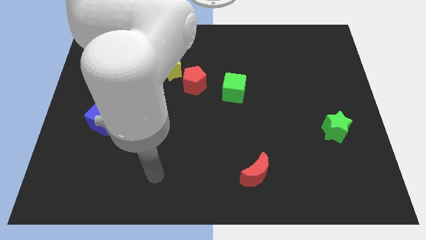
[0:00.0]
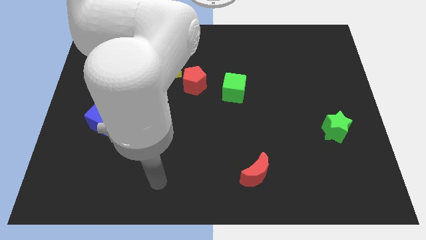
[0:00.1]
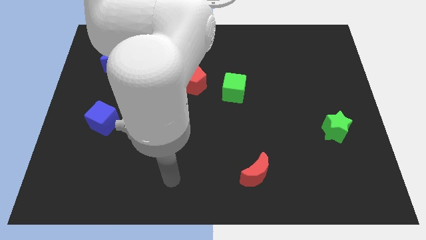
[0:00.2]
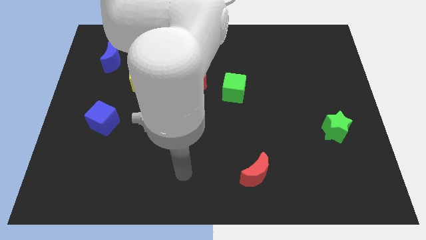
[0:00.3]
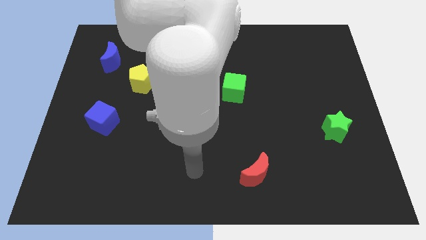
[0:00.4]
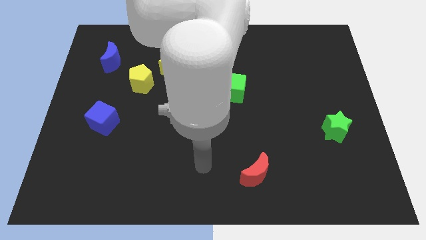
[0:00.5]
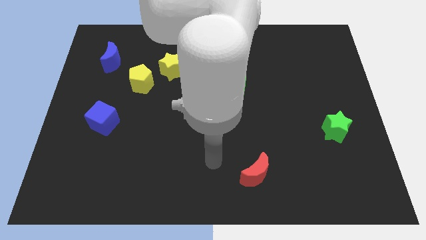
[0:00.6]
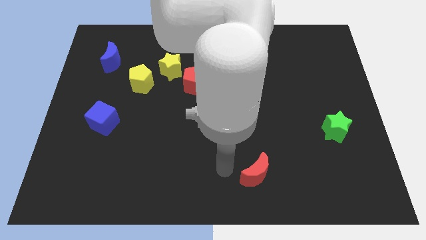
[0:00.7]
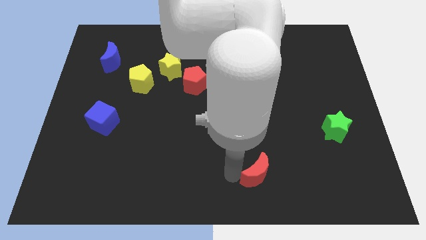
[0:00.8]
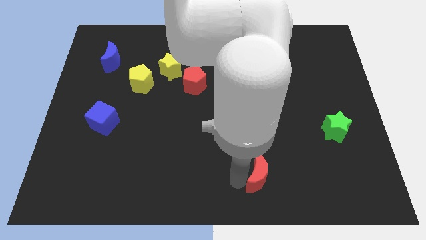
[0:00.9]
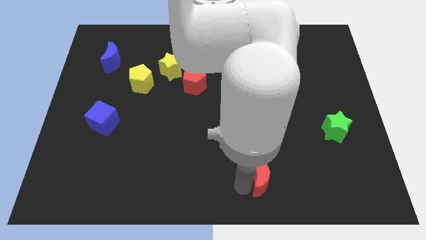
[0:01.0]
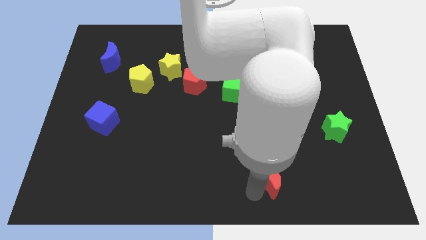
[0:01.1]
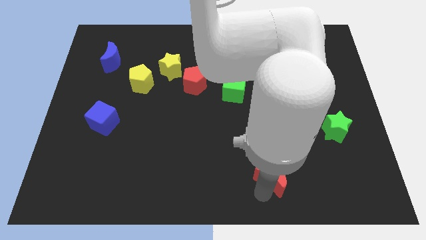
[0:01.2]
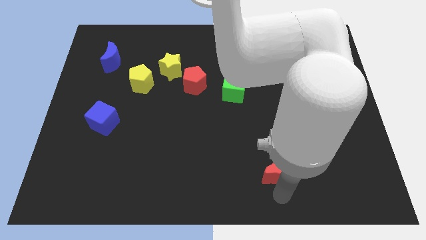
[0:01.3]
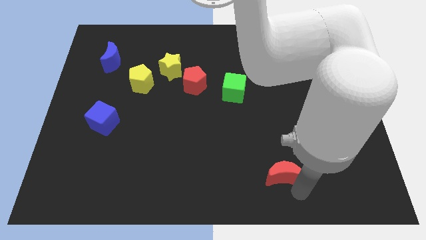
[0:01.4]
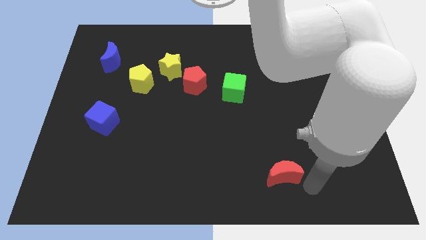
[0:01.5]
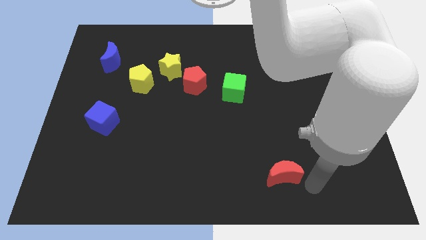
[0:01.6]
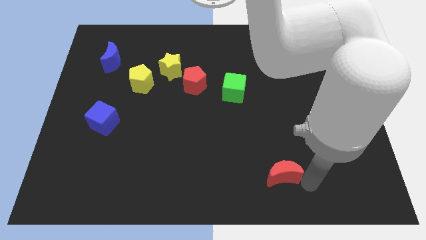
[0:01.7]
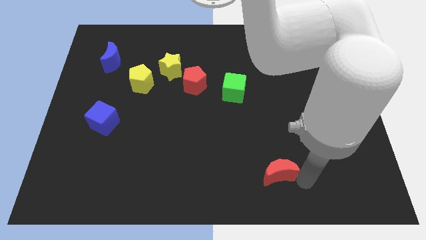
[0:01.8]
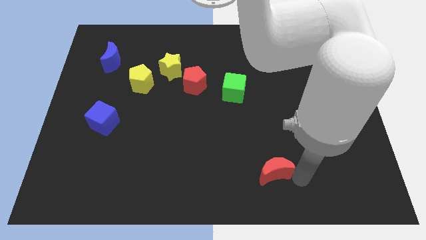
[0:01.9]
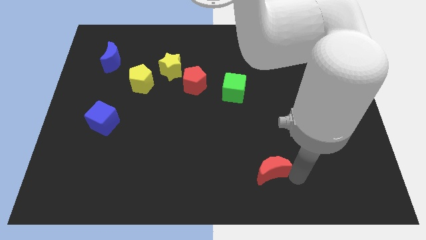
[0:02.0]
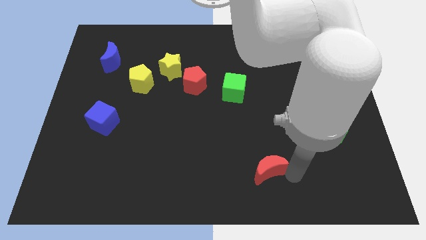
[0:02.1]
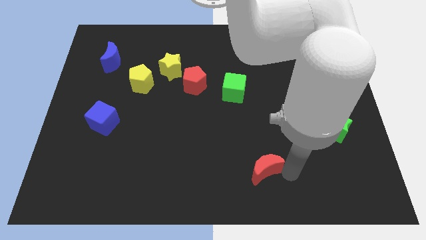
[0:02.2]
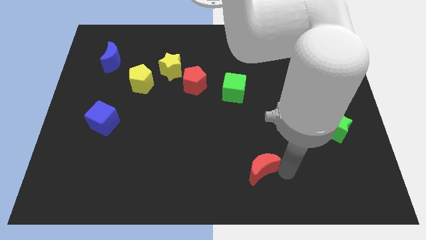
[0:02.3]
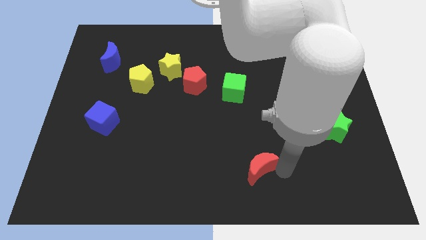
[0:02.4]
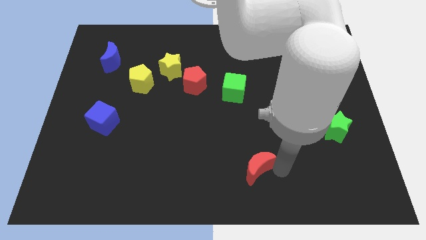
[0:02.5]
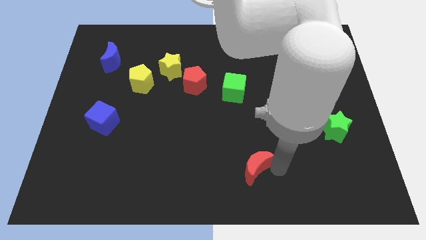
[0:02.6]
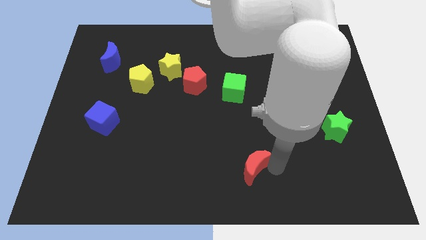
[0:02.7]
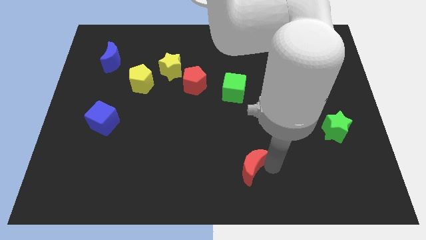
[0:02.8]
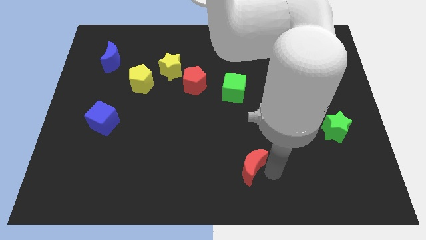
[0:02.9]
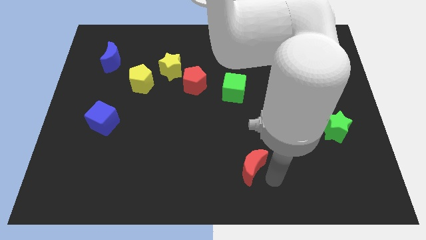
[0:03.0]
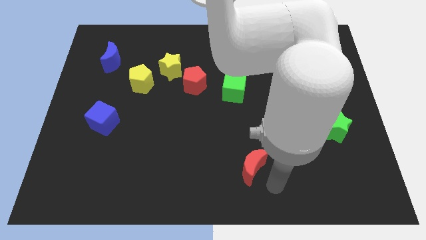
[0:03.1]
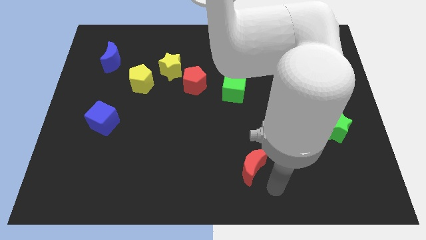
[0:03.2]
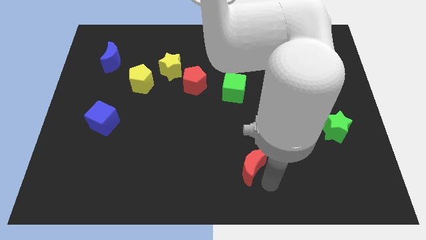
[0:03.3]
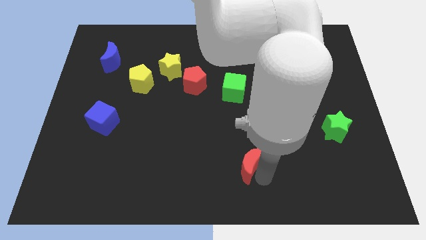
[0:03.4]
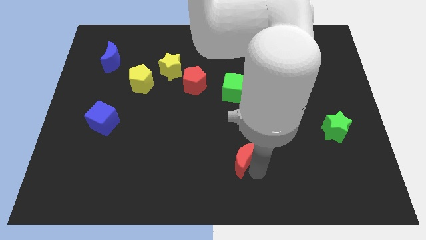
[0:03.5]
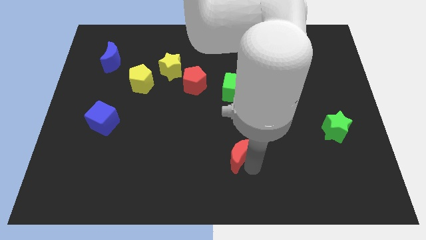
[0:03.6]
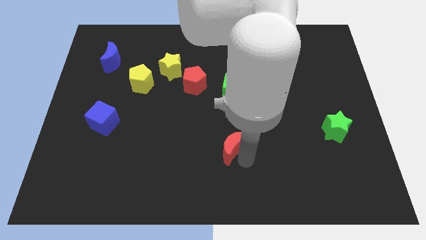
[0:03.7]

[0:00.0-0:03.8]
move the red moon upwards and then left a little bit

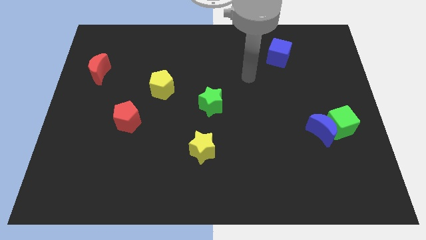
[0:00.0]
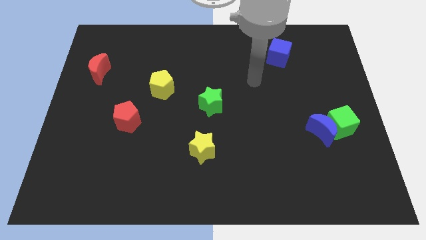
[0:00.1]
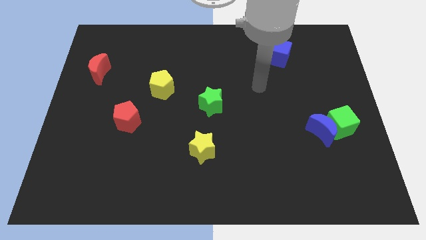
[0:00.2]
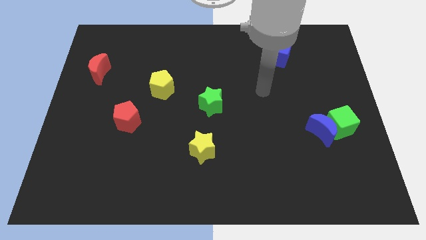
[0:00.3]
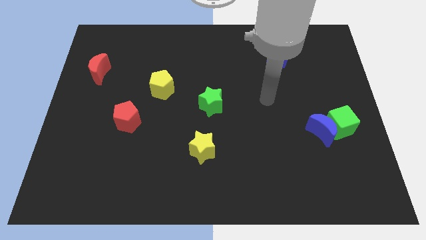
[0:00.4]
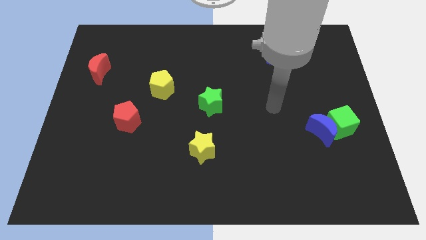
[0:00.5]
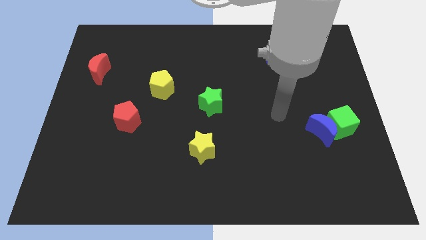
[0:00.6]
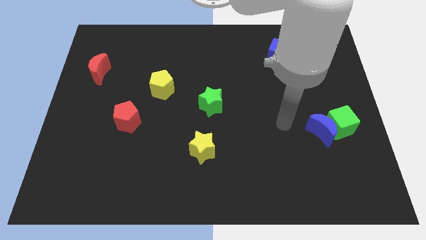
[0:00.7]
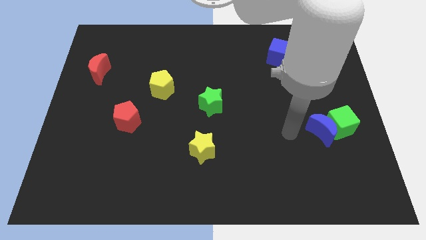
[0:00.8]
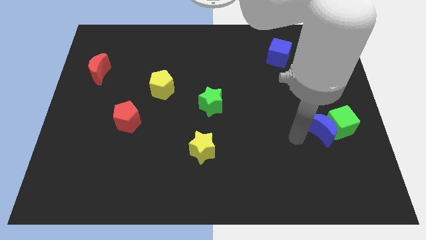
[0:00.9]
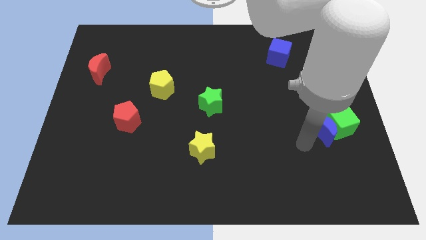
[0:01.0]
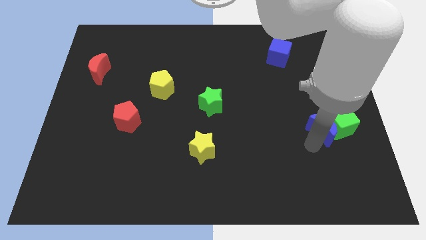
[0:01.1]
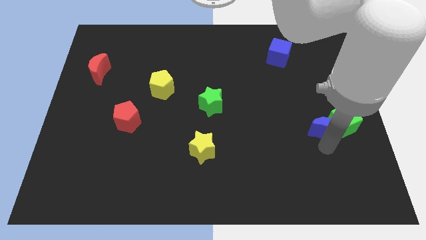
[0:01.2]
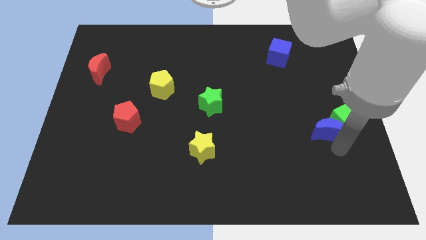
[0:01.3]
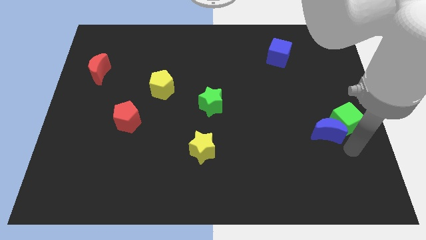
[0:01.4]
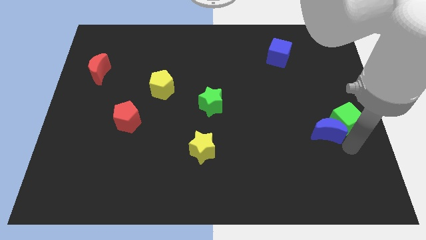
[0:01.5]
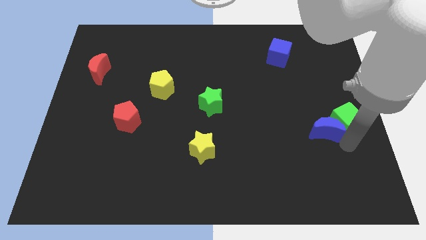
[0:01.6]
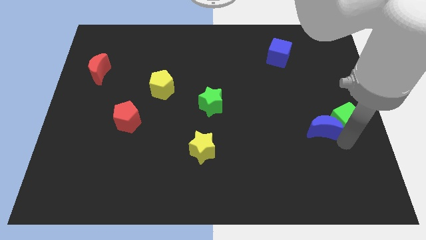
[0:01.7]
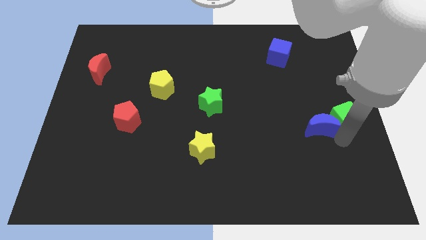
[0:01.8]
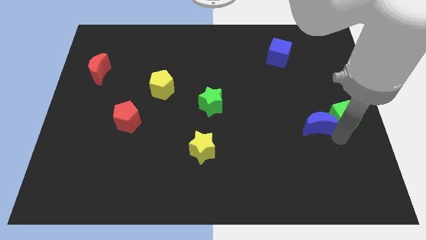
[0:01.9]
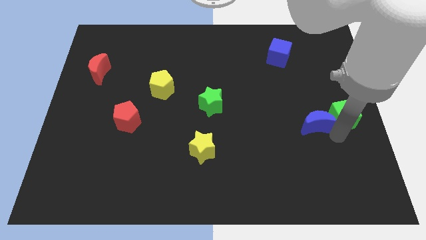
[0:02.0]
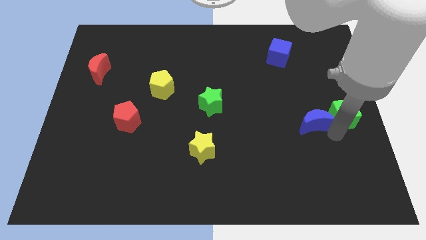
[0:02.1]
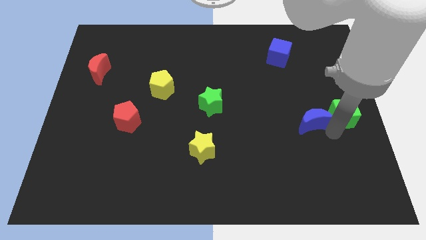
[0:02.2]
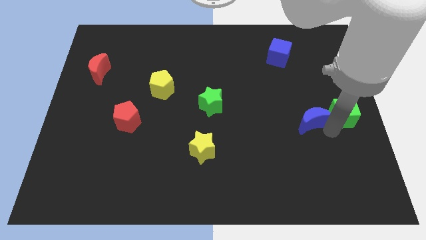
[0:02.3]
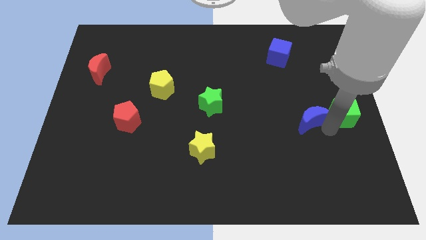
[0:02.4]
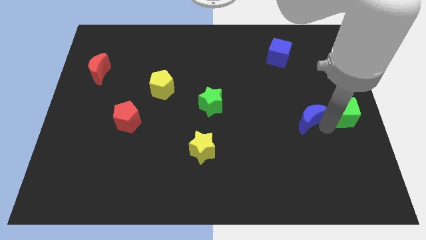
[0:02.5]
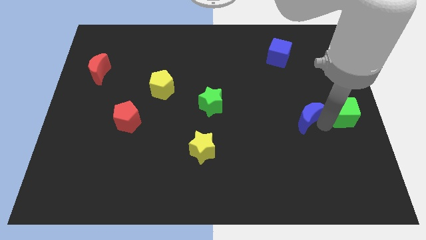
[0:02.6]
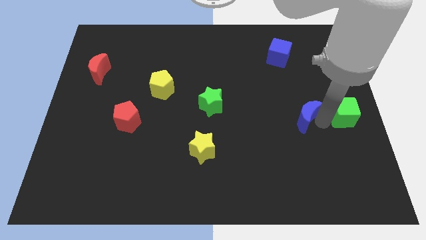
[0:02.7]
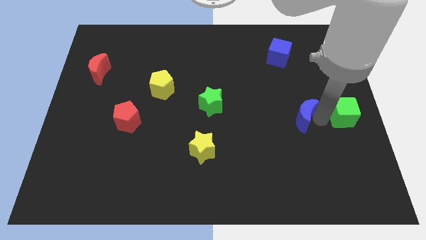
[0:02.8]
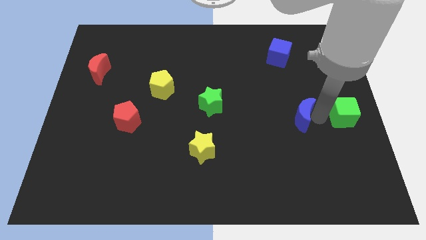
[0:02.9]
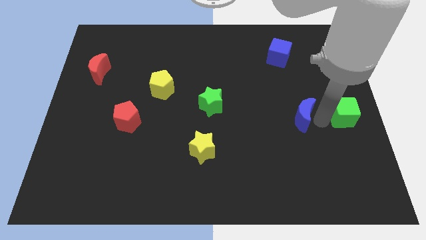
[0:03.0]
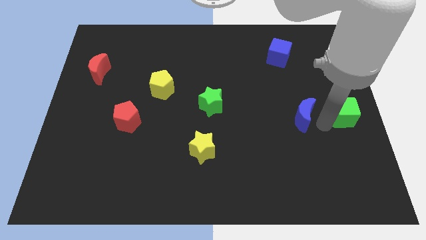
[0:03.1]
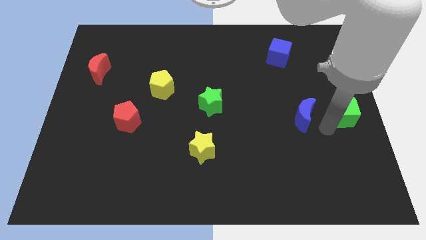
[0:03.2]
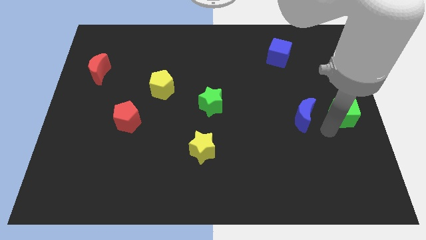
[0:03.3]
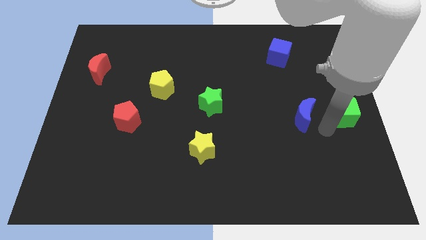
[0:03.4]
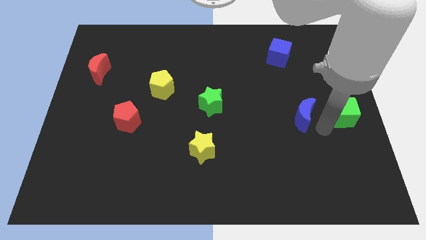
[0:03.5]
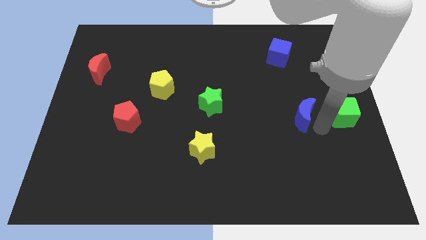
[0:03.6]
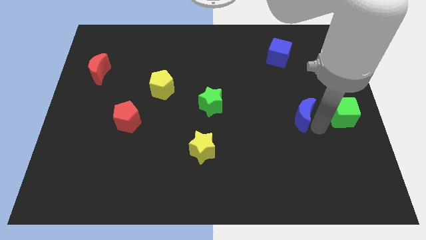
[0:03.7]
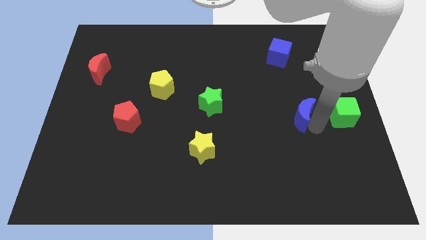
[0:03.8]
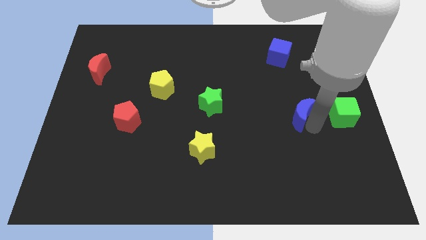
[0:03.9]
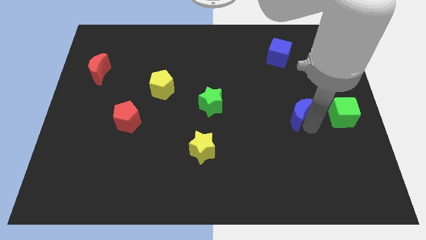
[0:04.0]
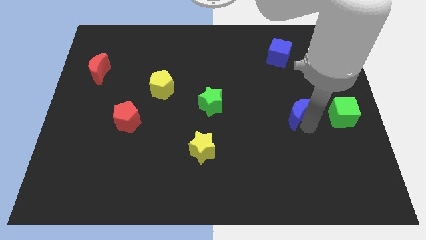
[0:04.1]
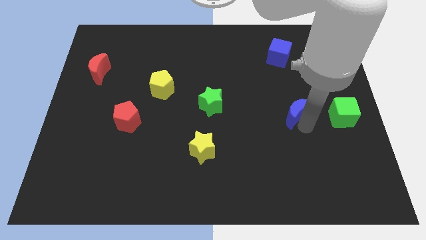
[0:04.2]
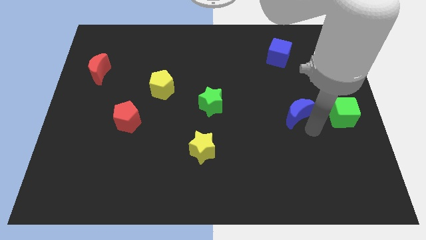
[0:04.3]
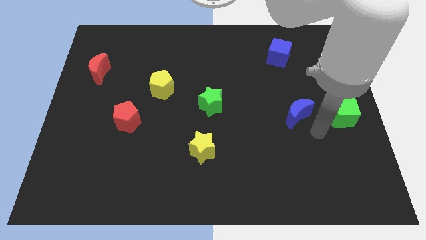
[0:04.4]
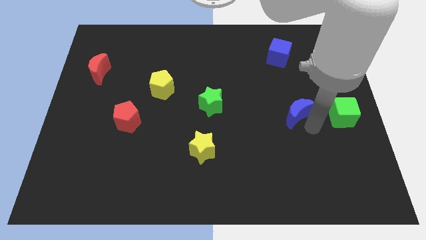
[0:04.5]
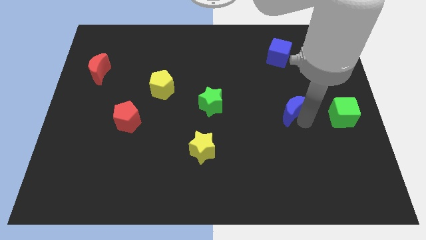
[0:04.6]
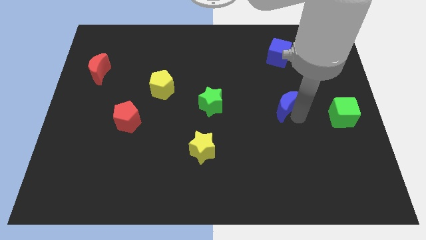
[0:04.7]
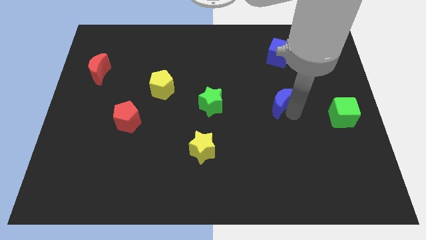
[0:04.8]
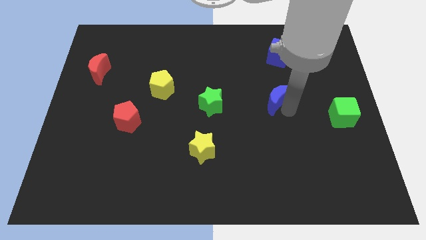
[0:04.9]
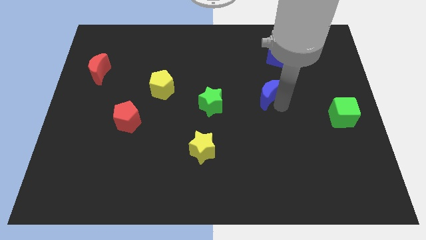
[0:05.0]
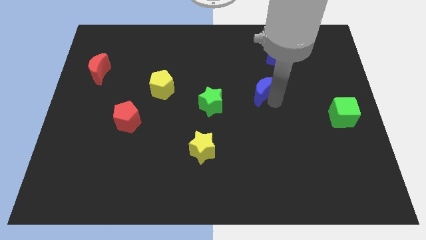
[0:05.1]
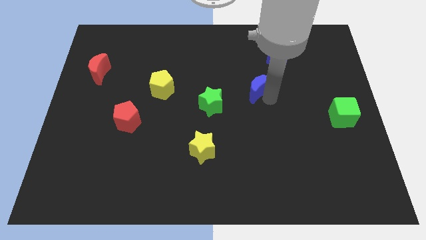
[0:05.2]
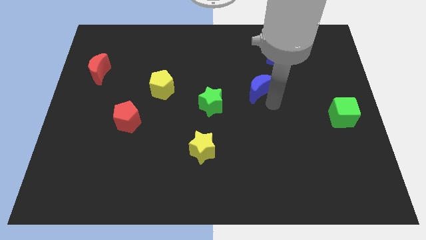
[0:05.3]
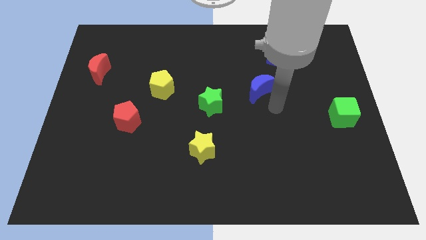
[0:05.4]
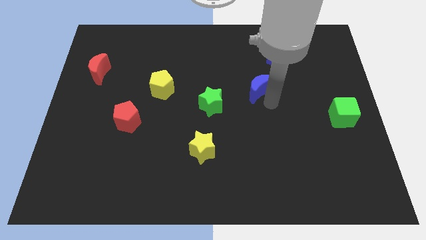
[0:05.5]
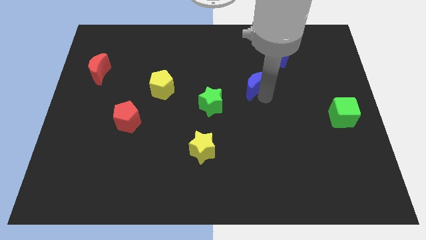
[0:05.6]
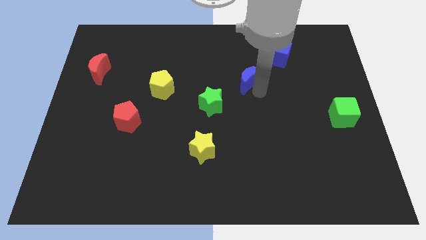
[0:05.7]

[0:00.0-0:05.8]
slide the blue moon upwards and then to the left
